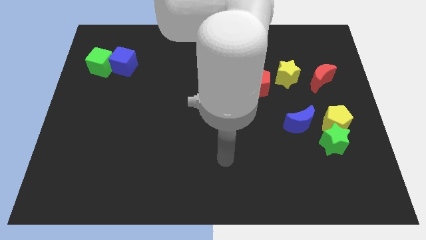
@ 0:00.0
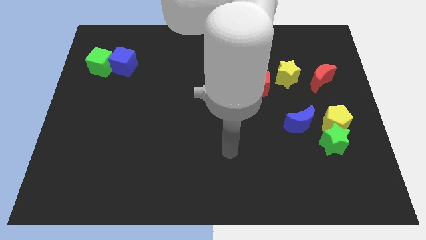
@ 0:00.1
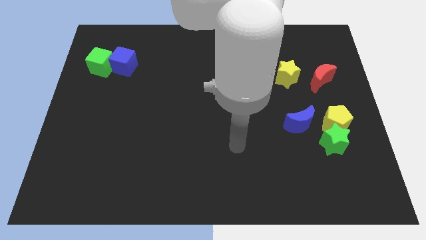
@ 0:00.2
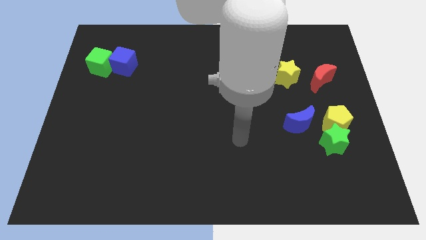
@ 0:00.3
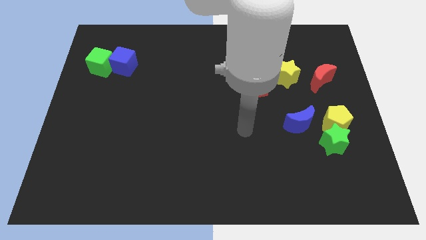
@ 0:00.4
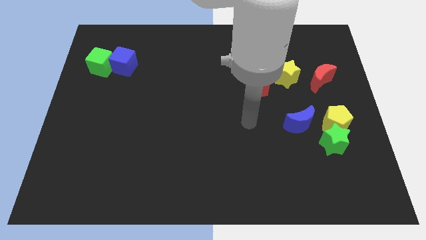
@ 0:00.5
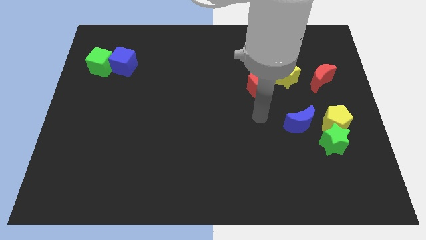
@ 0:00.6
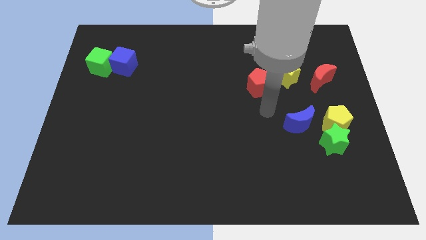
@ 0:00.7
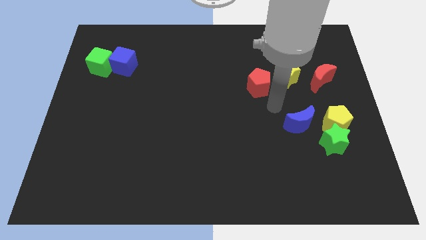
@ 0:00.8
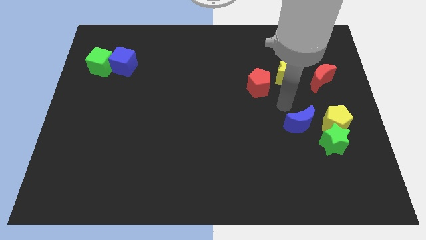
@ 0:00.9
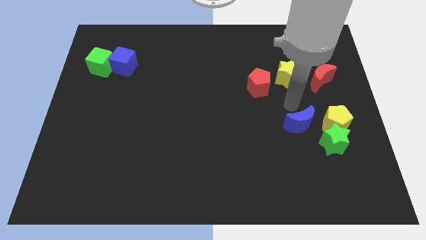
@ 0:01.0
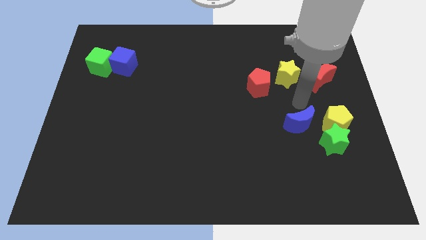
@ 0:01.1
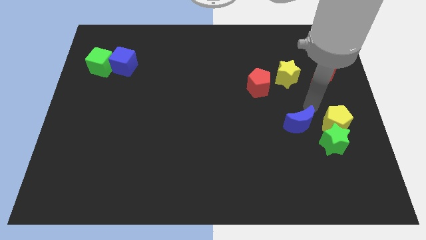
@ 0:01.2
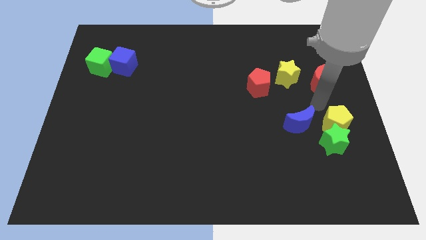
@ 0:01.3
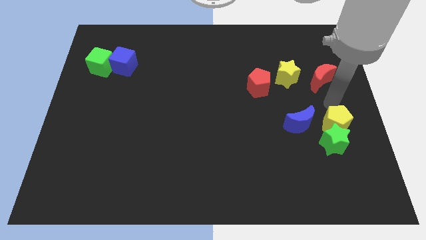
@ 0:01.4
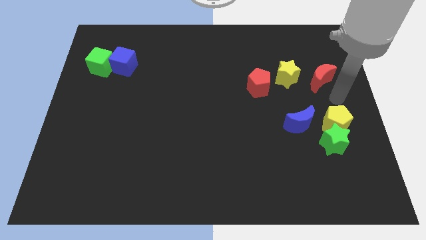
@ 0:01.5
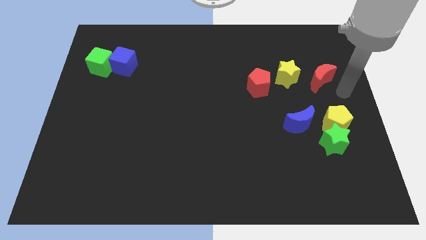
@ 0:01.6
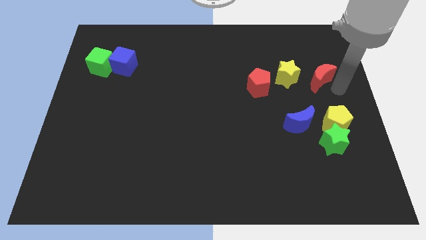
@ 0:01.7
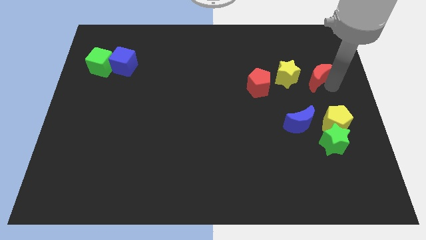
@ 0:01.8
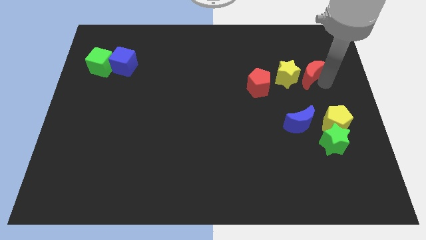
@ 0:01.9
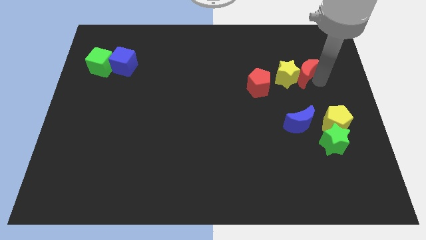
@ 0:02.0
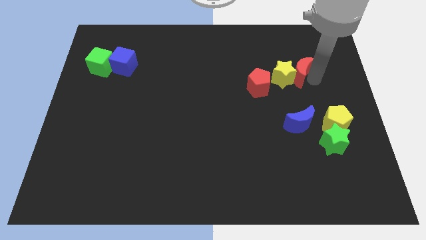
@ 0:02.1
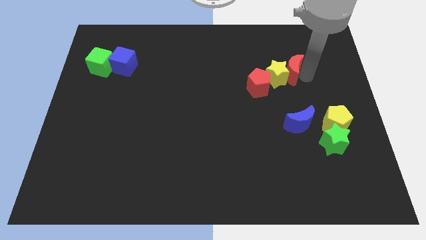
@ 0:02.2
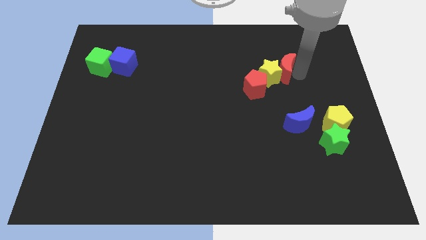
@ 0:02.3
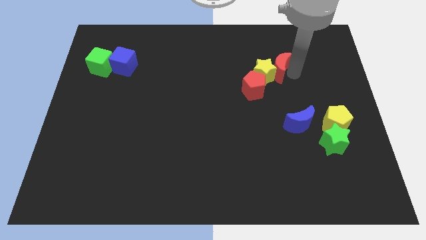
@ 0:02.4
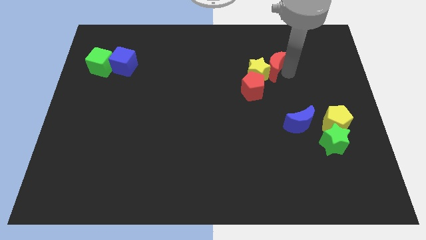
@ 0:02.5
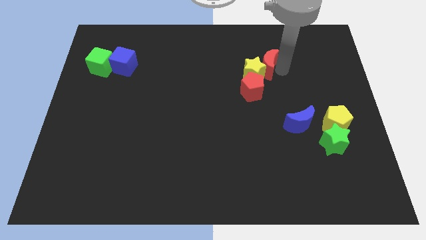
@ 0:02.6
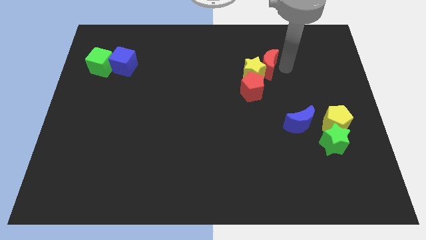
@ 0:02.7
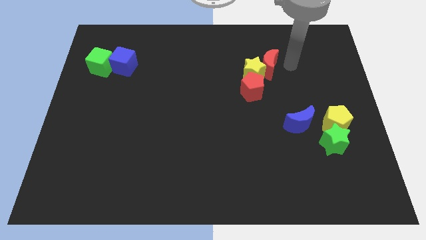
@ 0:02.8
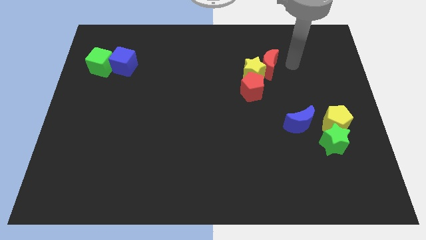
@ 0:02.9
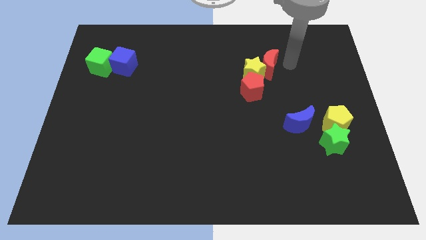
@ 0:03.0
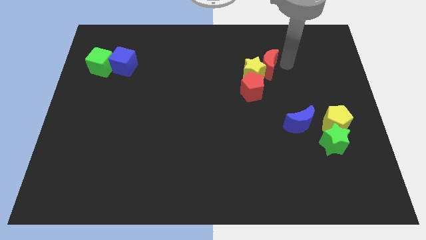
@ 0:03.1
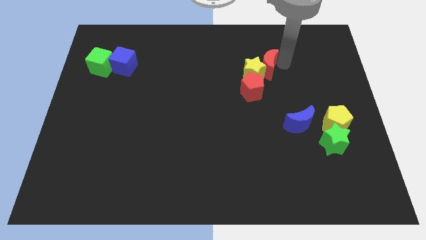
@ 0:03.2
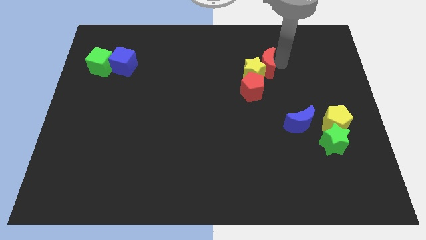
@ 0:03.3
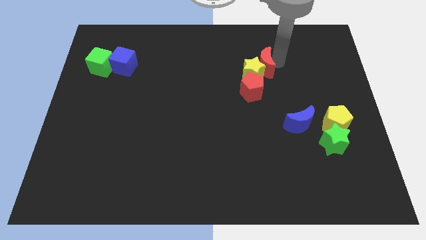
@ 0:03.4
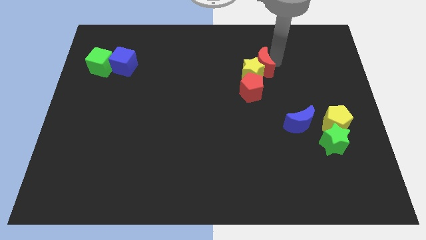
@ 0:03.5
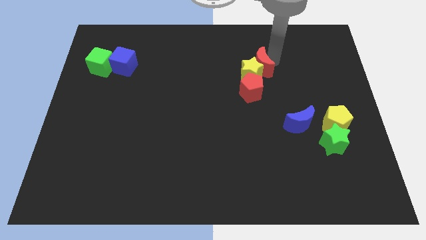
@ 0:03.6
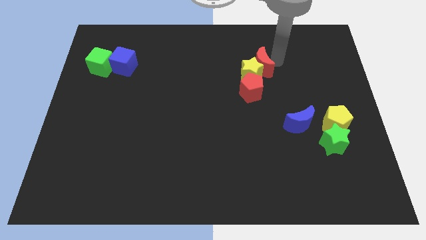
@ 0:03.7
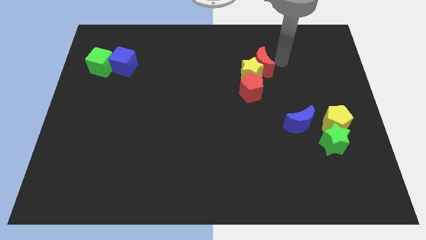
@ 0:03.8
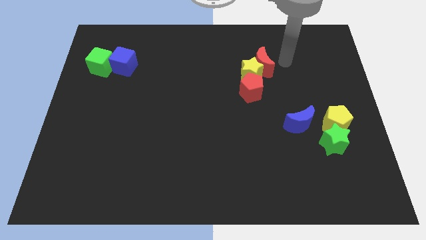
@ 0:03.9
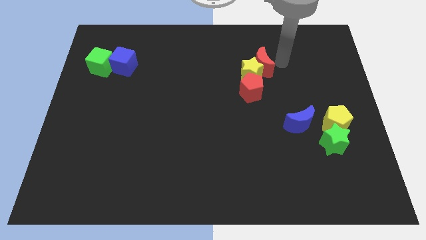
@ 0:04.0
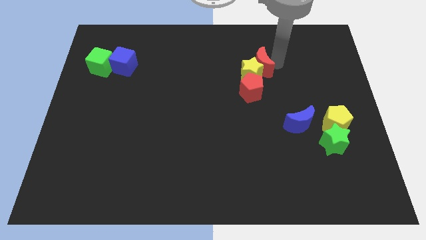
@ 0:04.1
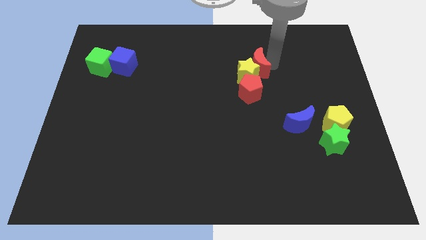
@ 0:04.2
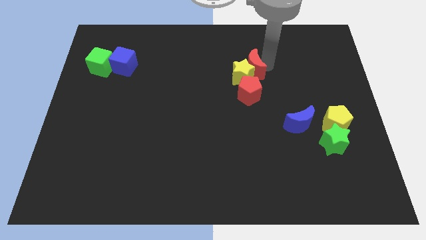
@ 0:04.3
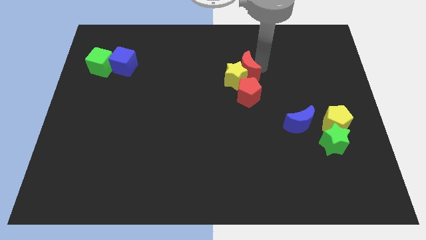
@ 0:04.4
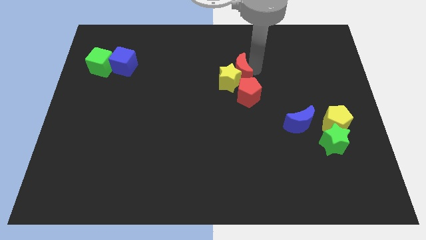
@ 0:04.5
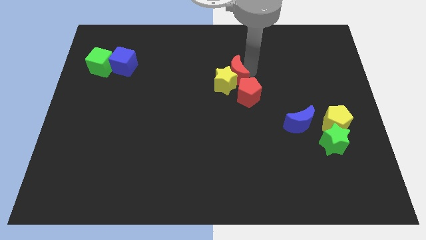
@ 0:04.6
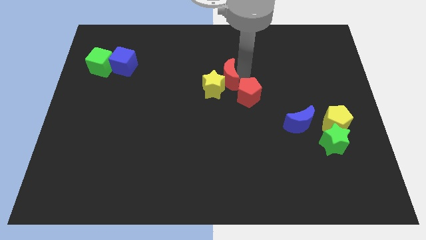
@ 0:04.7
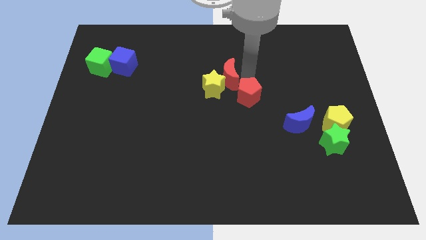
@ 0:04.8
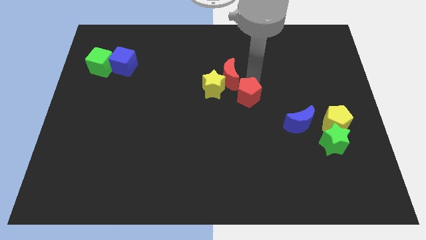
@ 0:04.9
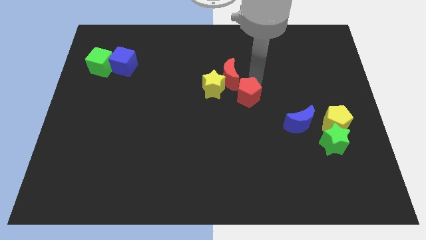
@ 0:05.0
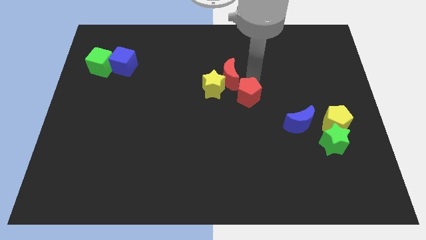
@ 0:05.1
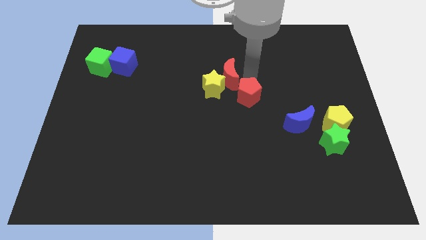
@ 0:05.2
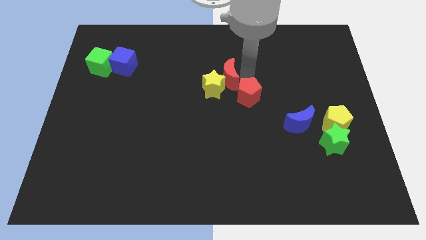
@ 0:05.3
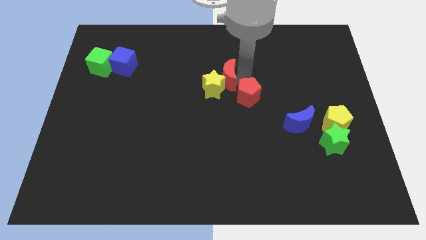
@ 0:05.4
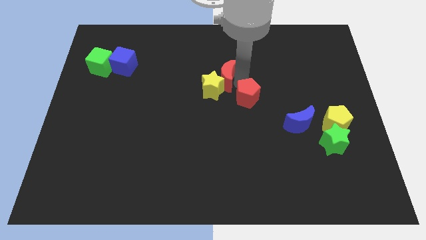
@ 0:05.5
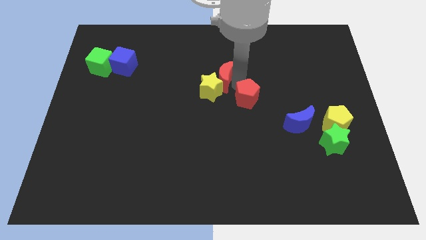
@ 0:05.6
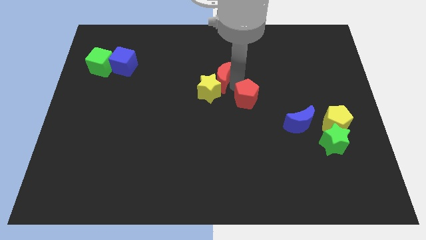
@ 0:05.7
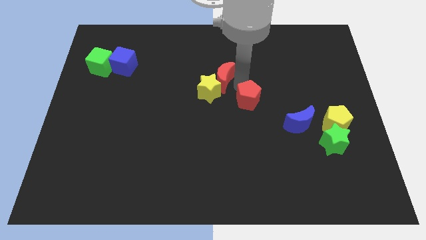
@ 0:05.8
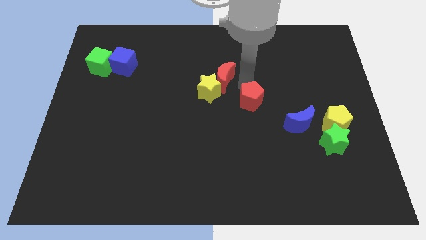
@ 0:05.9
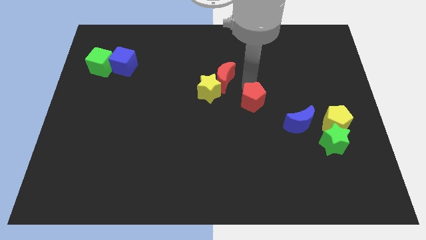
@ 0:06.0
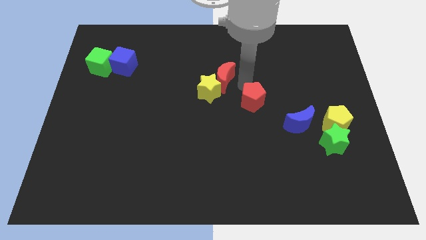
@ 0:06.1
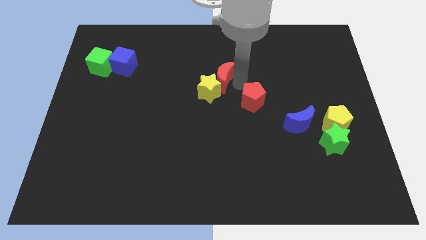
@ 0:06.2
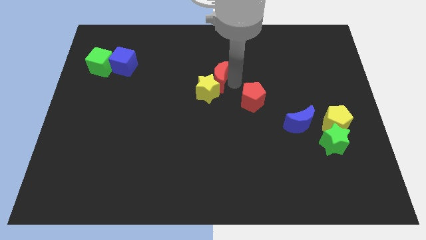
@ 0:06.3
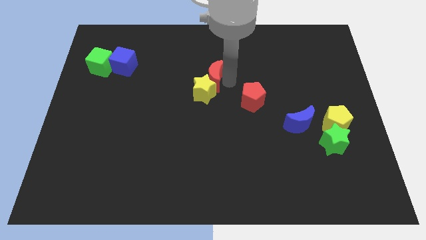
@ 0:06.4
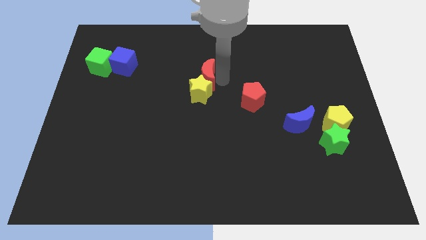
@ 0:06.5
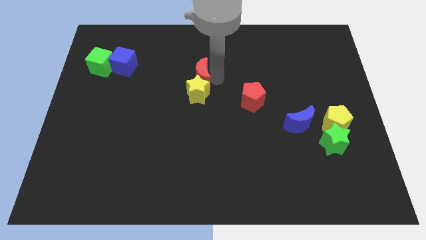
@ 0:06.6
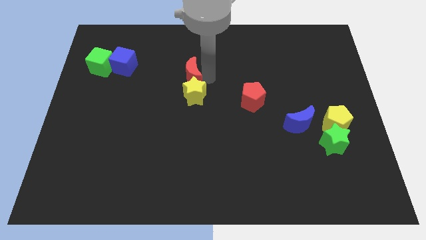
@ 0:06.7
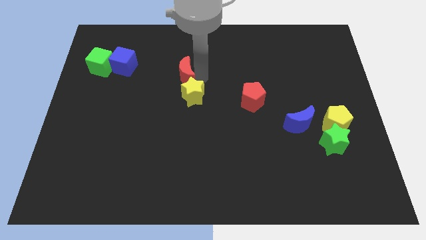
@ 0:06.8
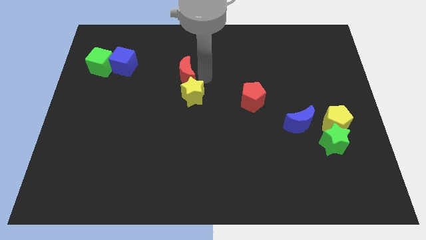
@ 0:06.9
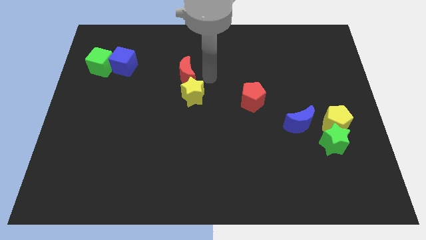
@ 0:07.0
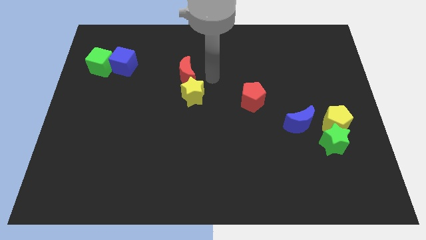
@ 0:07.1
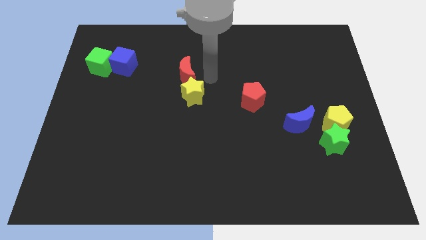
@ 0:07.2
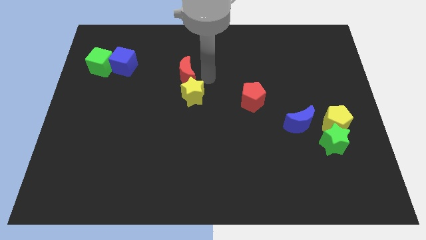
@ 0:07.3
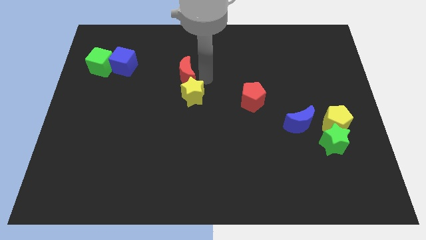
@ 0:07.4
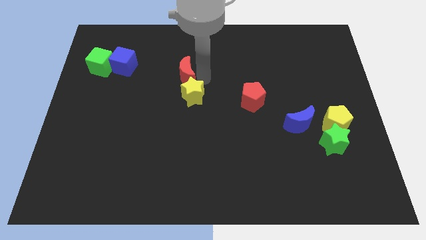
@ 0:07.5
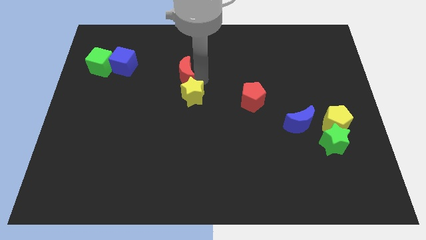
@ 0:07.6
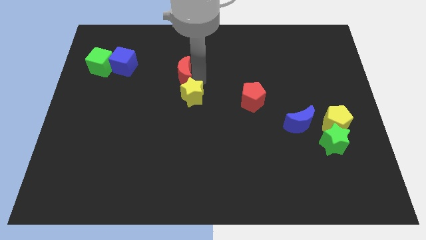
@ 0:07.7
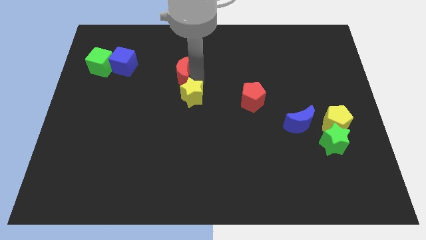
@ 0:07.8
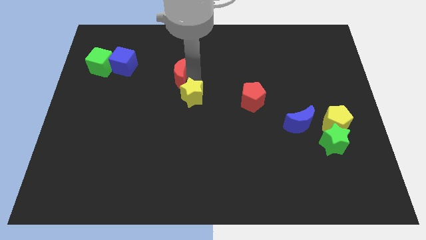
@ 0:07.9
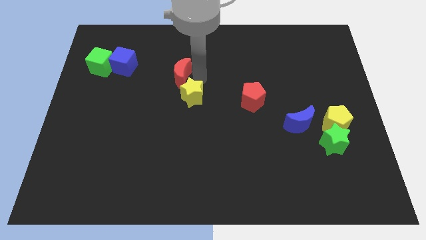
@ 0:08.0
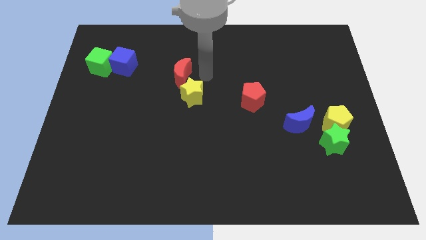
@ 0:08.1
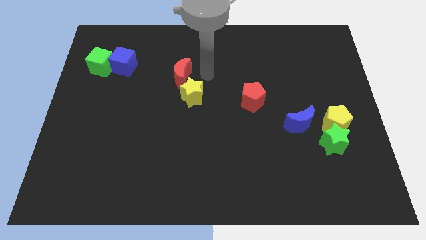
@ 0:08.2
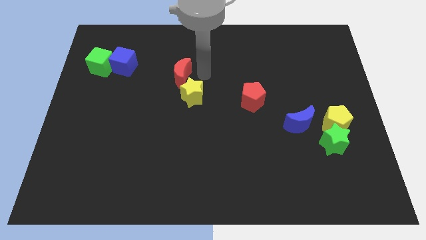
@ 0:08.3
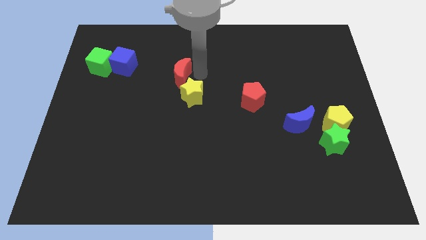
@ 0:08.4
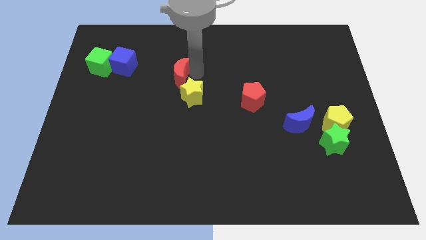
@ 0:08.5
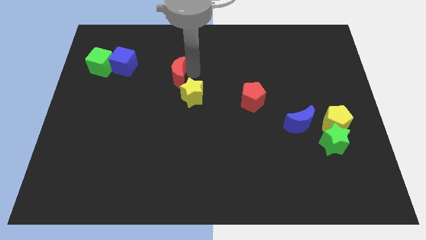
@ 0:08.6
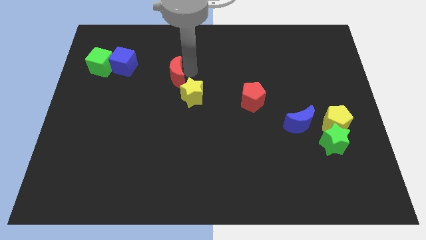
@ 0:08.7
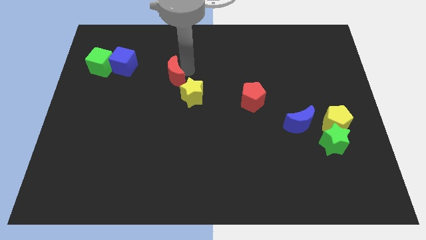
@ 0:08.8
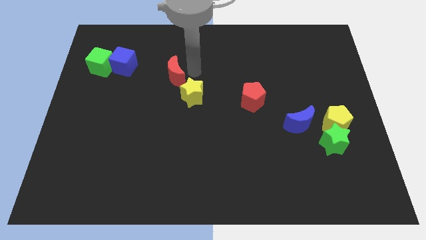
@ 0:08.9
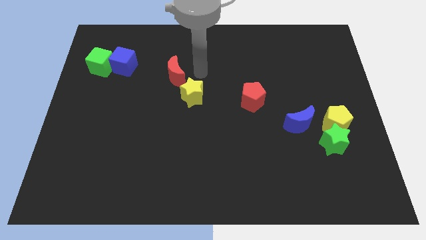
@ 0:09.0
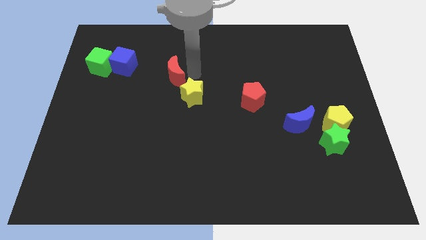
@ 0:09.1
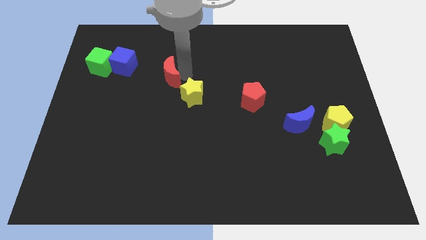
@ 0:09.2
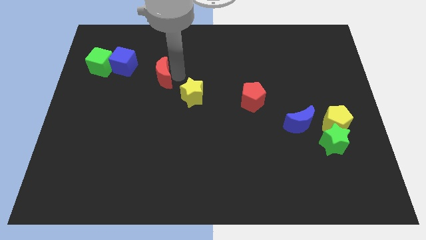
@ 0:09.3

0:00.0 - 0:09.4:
slide the red moon to the bottom right side of the blue cube
